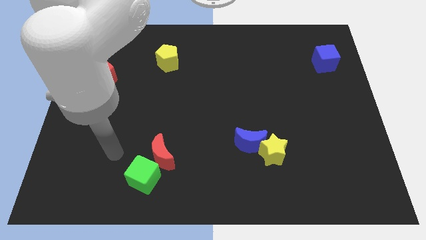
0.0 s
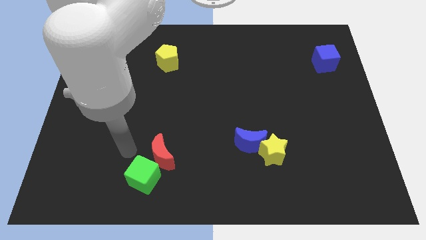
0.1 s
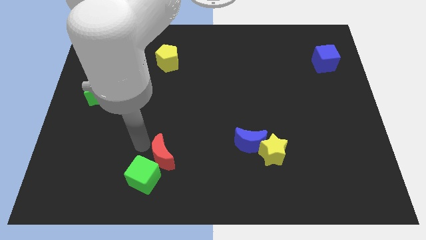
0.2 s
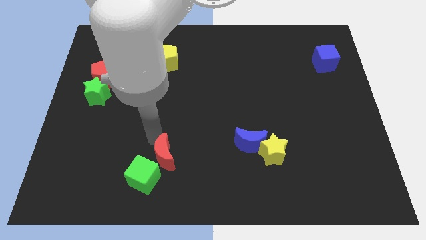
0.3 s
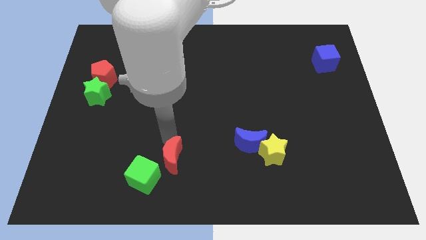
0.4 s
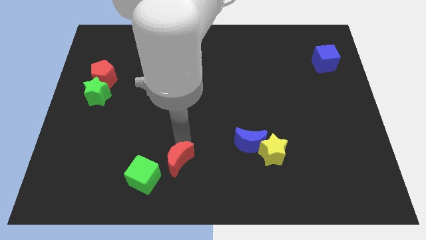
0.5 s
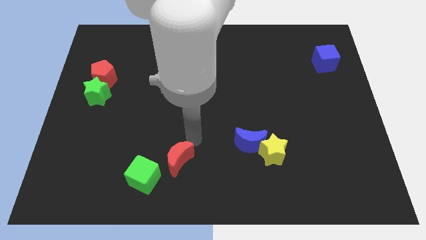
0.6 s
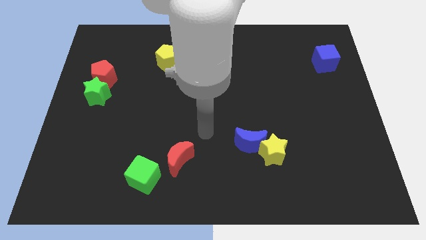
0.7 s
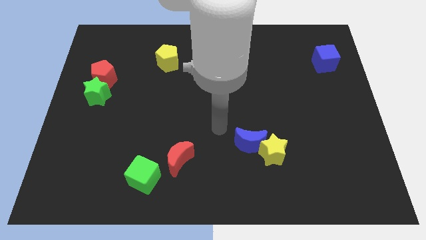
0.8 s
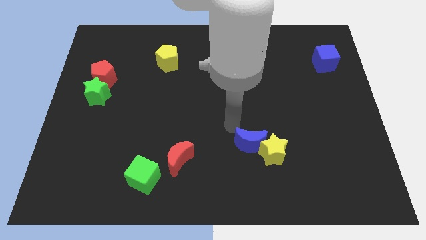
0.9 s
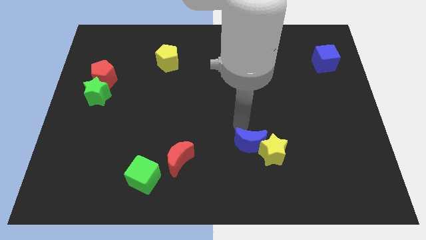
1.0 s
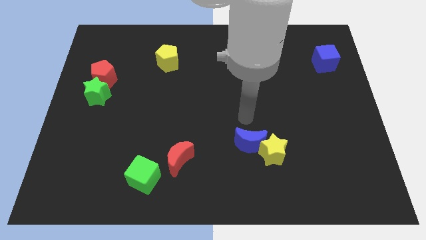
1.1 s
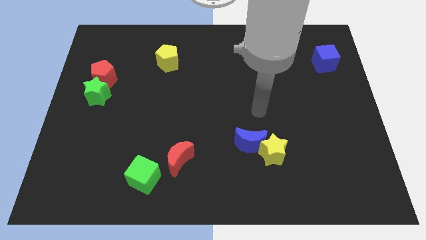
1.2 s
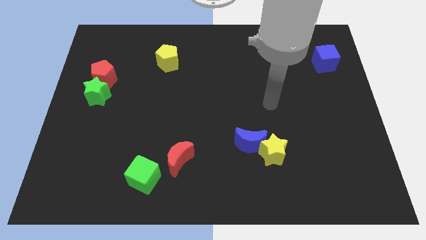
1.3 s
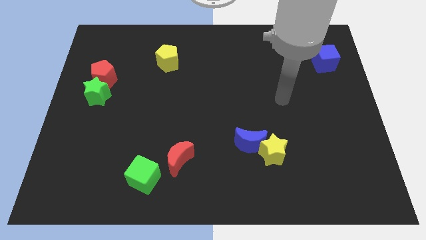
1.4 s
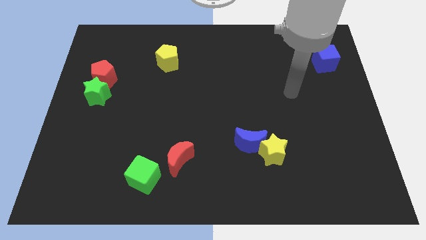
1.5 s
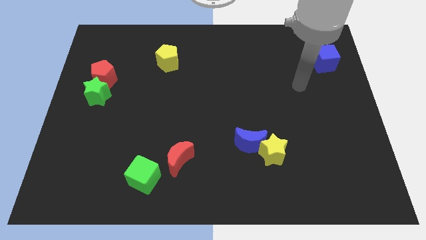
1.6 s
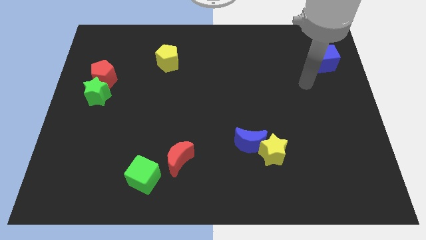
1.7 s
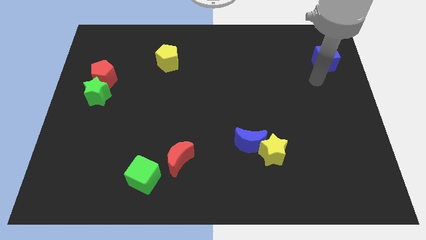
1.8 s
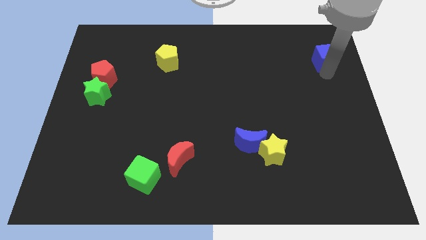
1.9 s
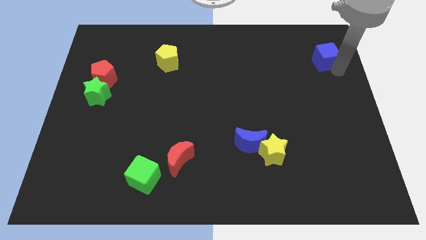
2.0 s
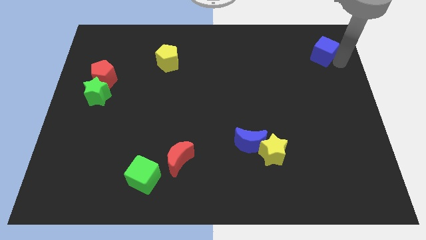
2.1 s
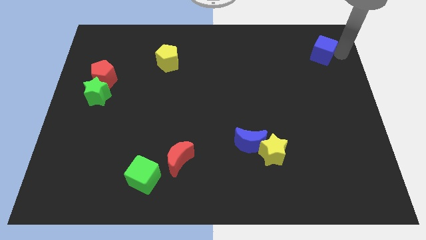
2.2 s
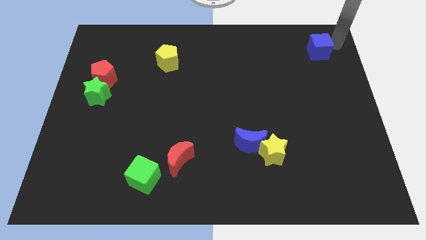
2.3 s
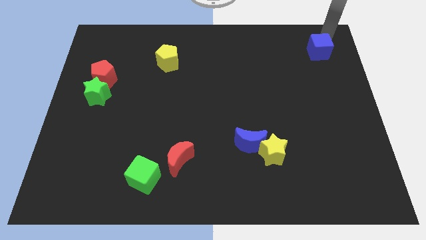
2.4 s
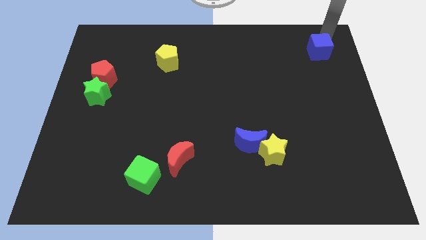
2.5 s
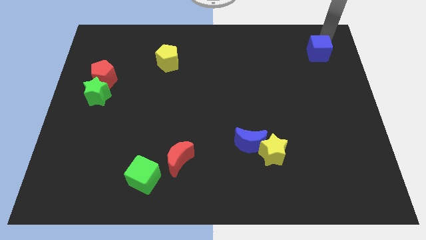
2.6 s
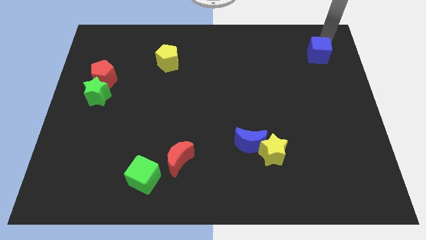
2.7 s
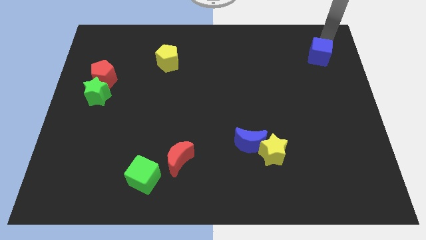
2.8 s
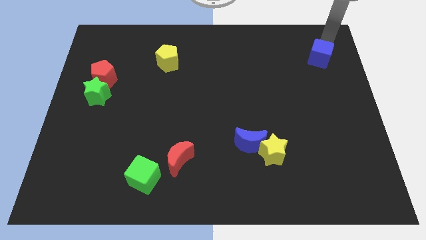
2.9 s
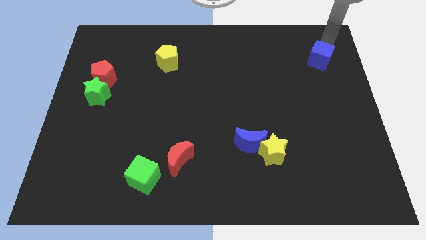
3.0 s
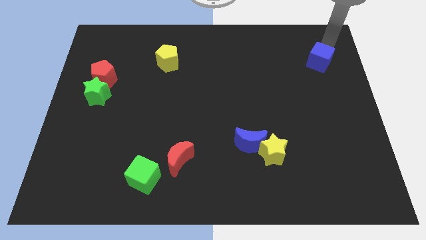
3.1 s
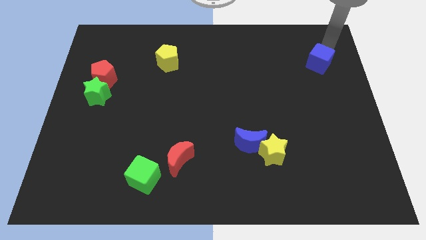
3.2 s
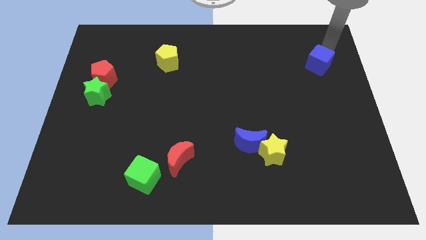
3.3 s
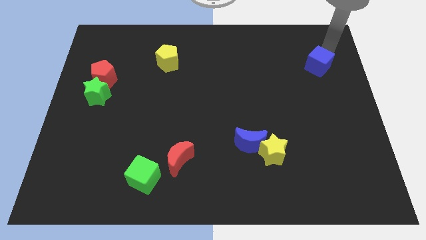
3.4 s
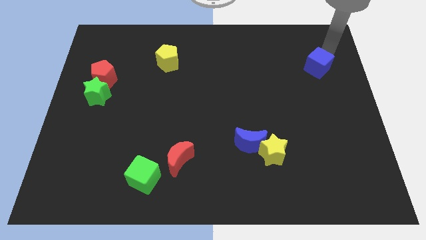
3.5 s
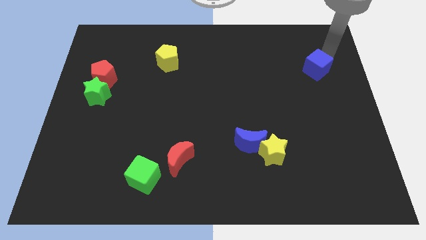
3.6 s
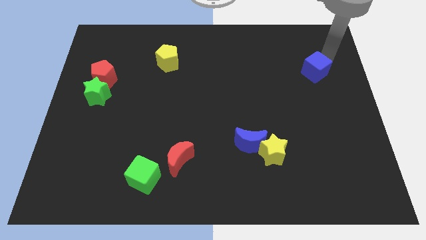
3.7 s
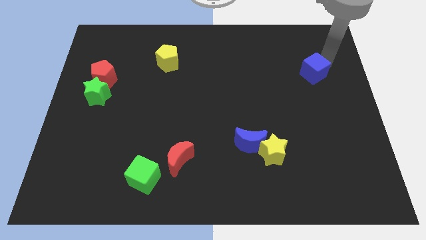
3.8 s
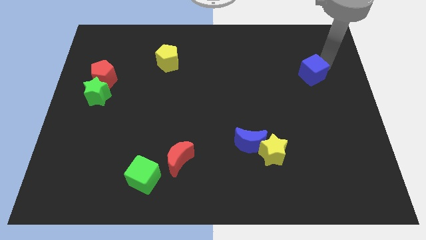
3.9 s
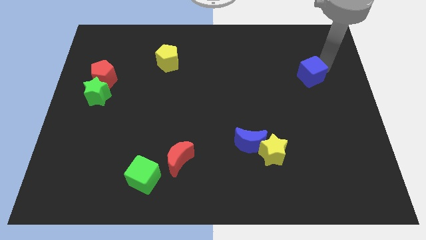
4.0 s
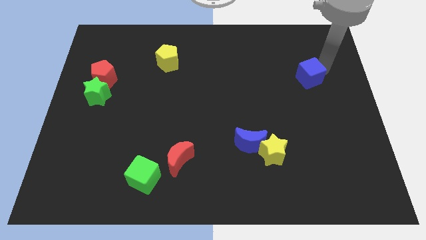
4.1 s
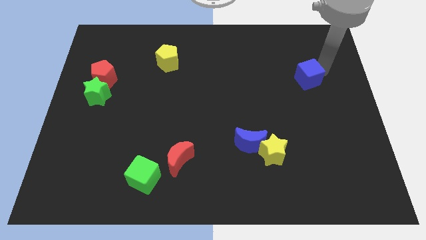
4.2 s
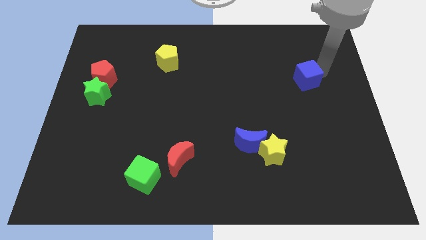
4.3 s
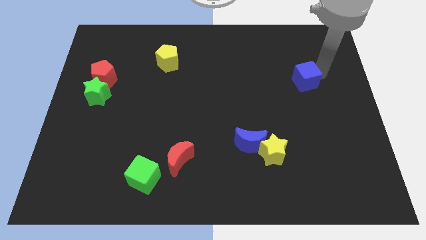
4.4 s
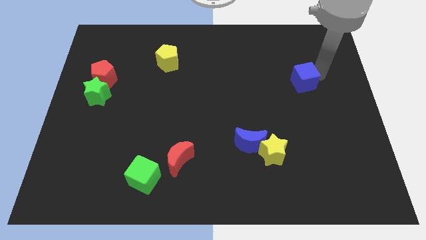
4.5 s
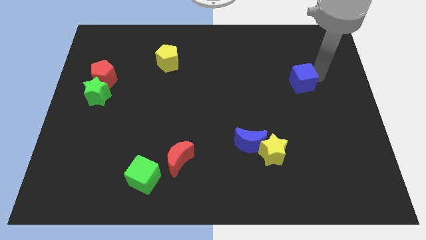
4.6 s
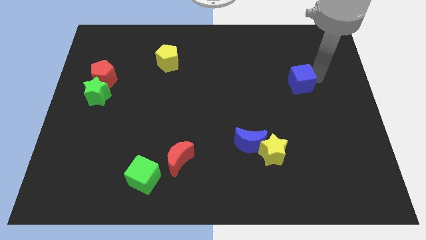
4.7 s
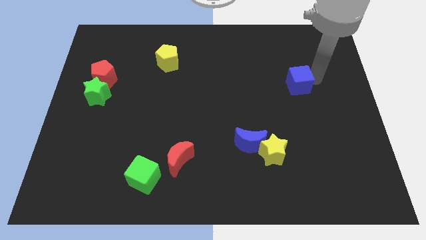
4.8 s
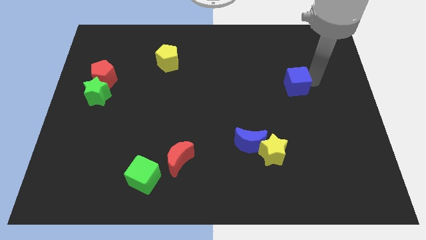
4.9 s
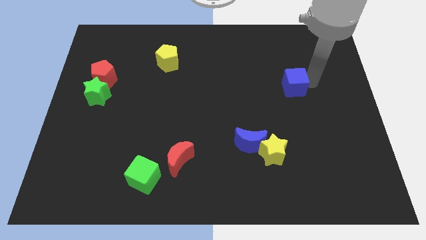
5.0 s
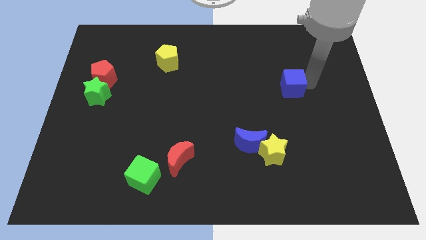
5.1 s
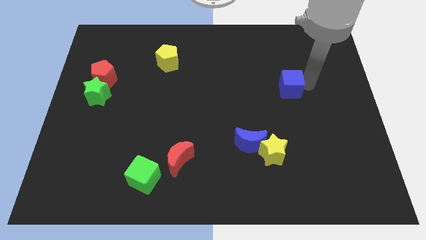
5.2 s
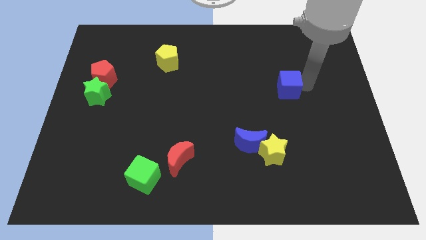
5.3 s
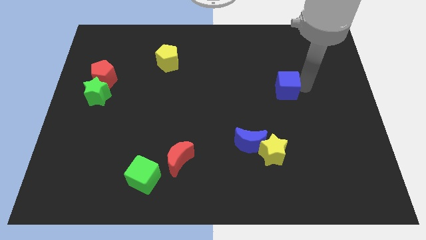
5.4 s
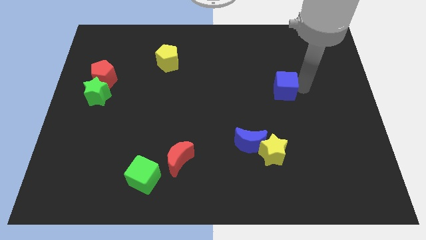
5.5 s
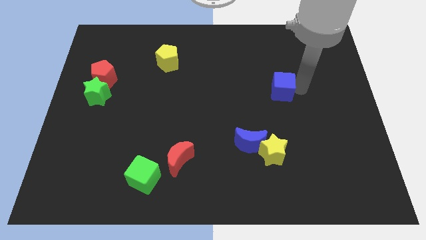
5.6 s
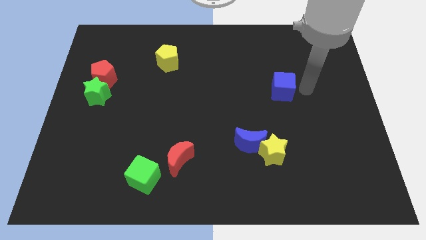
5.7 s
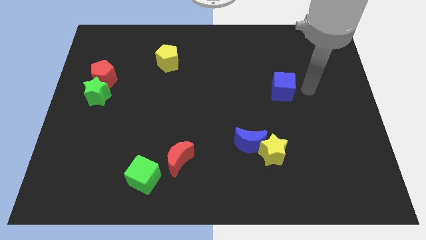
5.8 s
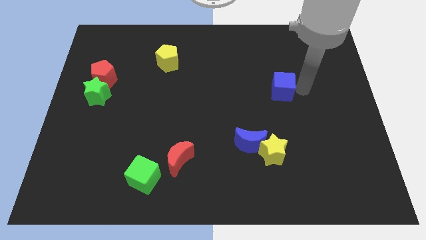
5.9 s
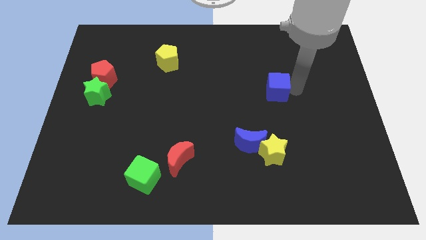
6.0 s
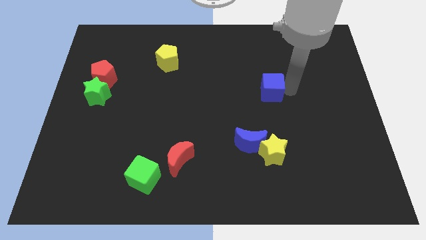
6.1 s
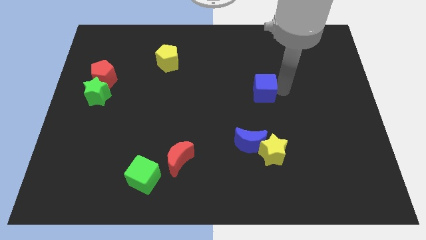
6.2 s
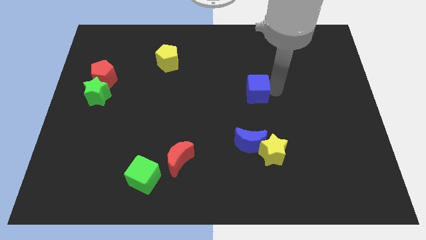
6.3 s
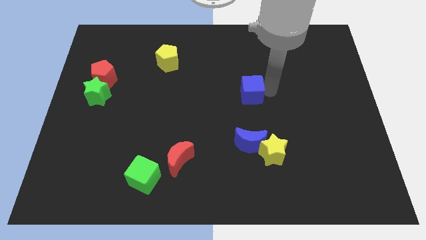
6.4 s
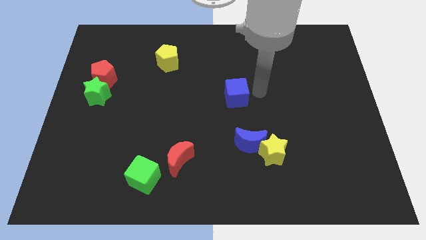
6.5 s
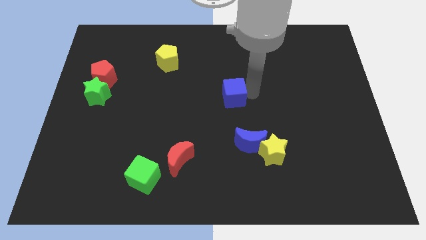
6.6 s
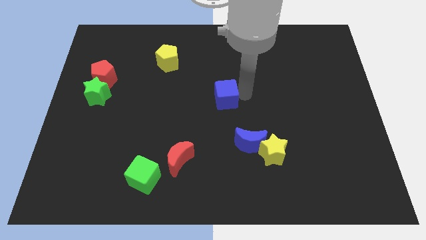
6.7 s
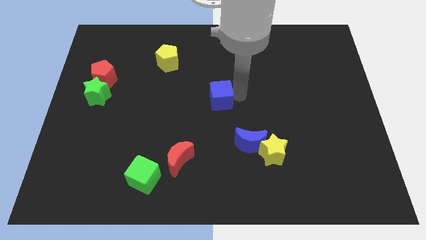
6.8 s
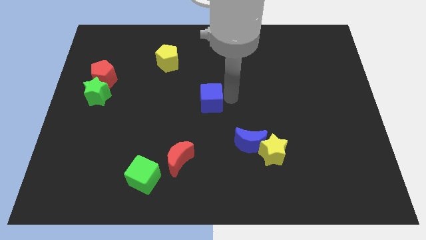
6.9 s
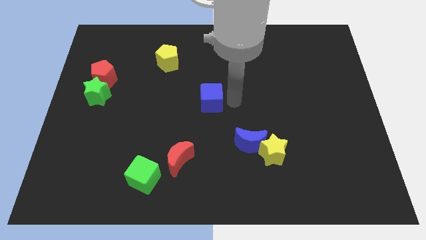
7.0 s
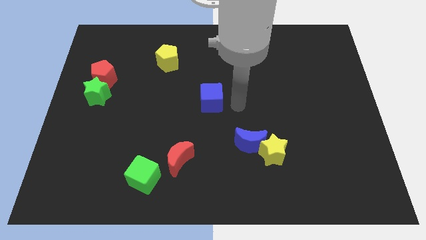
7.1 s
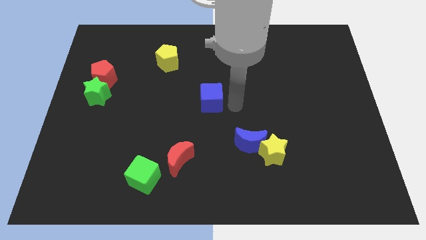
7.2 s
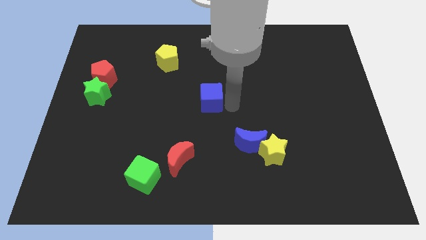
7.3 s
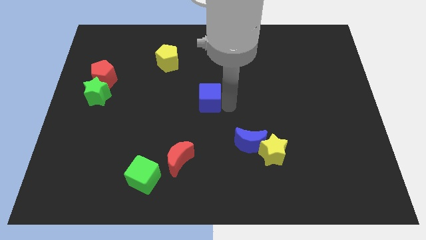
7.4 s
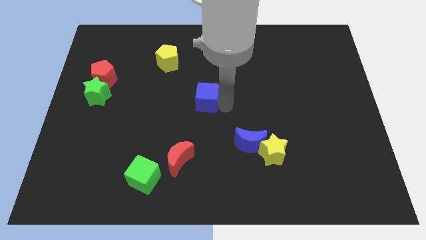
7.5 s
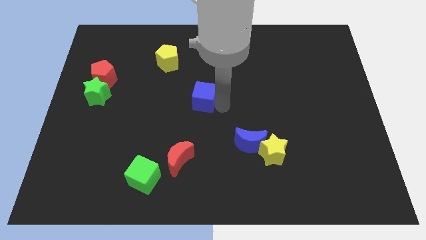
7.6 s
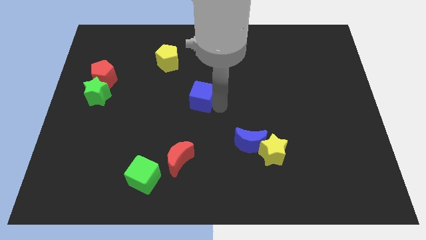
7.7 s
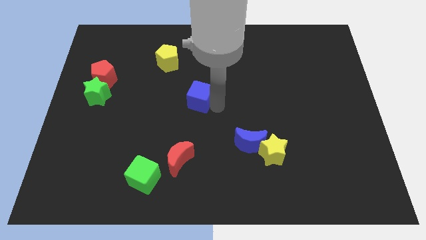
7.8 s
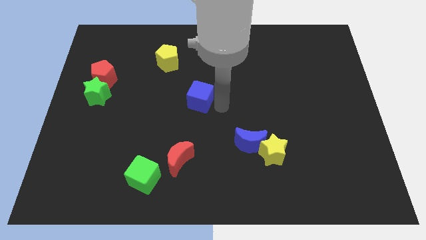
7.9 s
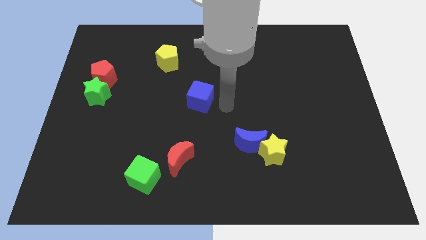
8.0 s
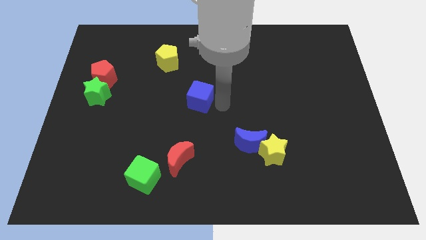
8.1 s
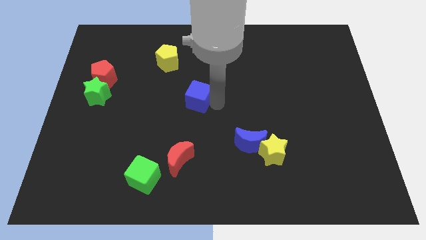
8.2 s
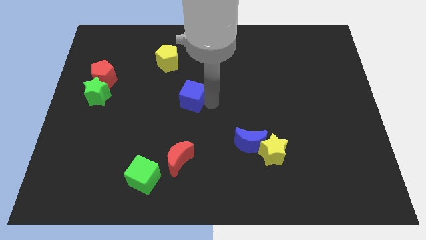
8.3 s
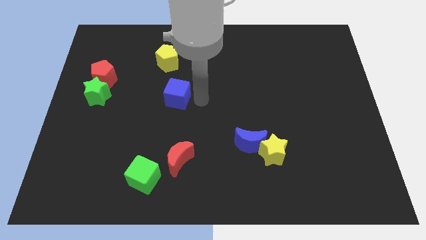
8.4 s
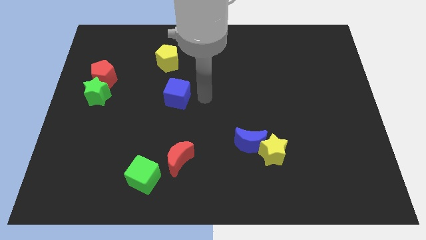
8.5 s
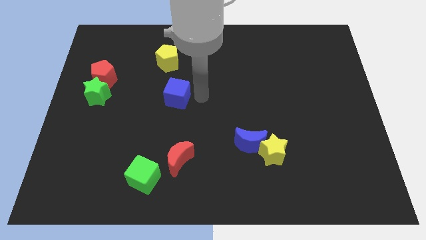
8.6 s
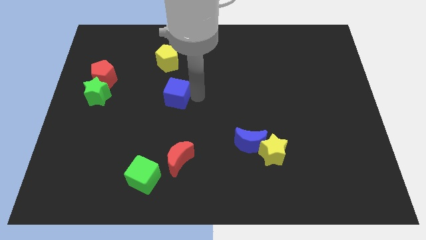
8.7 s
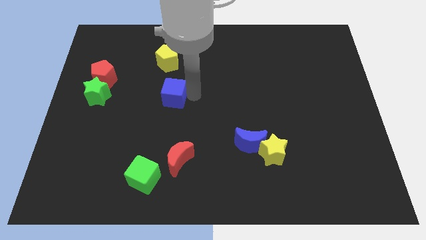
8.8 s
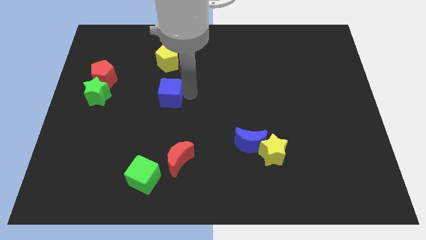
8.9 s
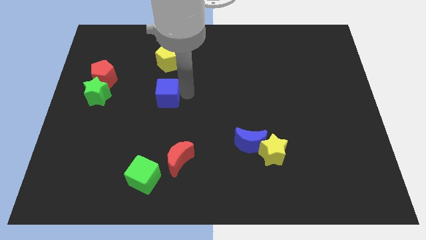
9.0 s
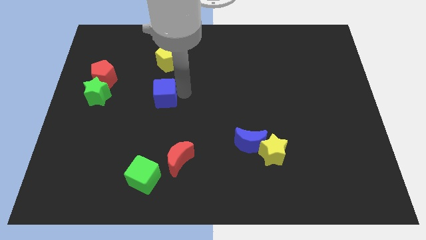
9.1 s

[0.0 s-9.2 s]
put the blue cube to the right of the green star
